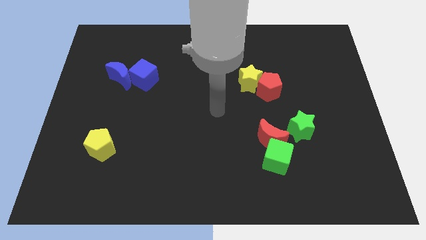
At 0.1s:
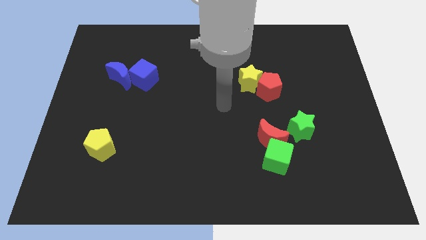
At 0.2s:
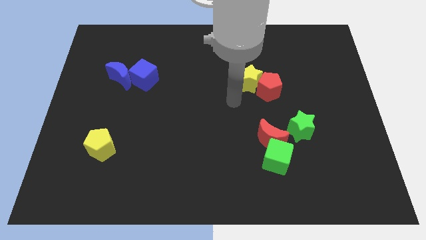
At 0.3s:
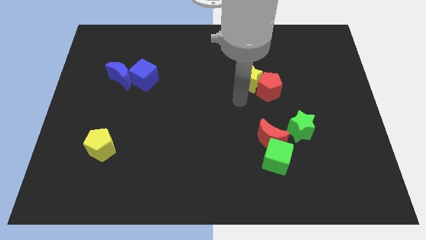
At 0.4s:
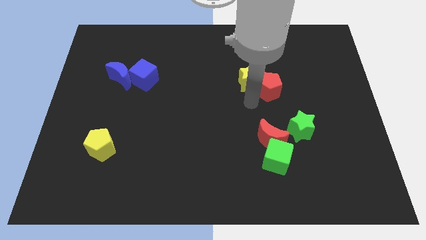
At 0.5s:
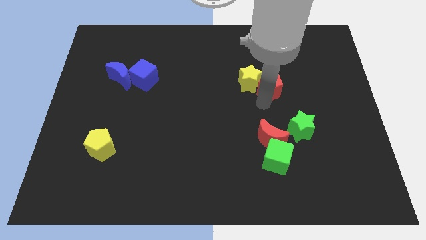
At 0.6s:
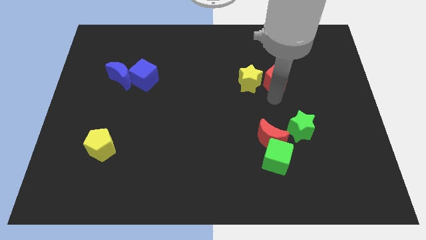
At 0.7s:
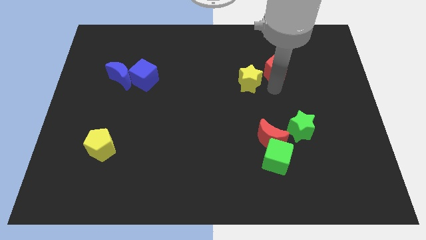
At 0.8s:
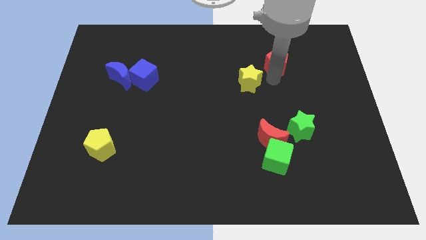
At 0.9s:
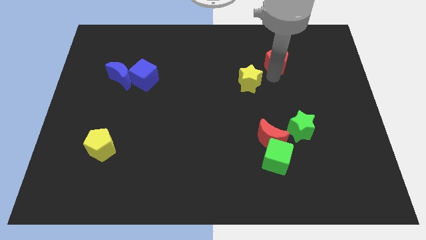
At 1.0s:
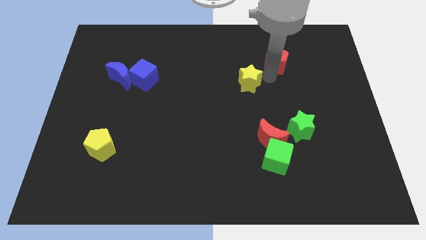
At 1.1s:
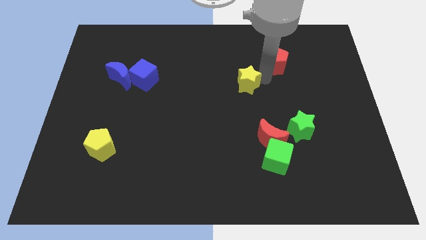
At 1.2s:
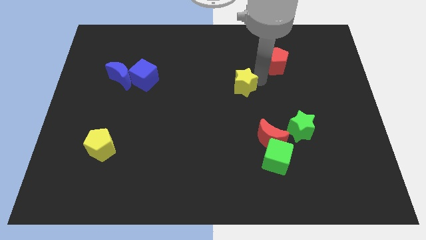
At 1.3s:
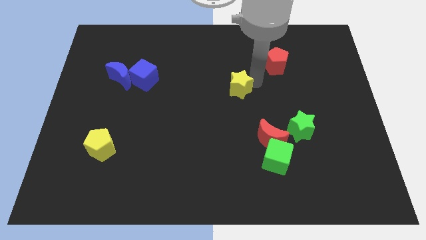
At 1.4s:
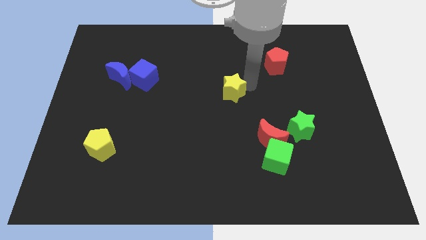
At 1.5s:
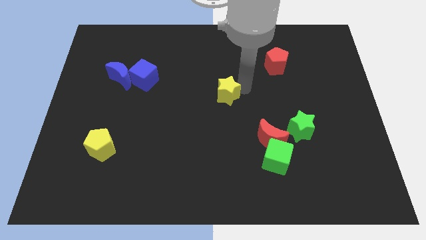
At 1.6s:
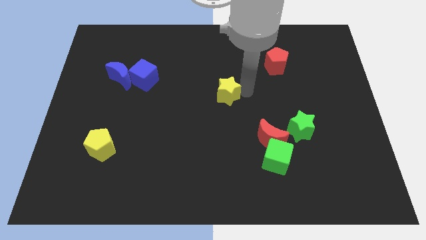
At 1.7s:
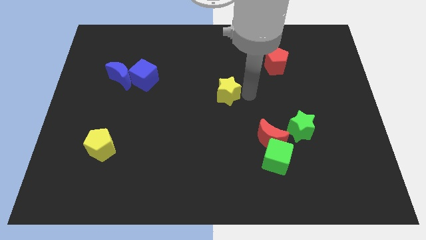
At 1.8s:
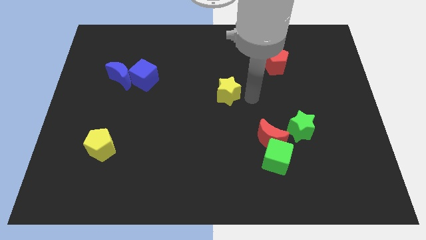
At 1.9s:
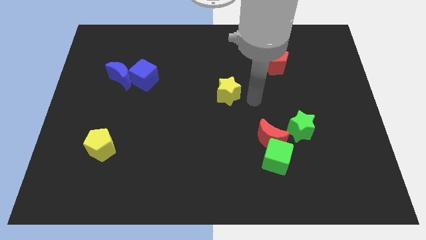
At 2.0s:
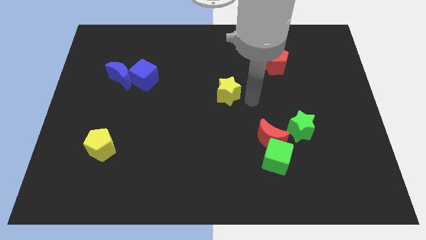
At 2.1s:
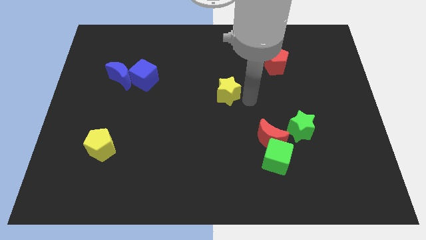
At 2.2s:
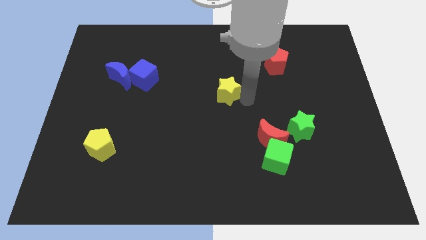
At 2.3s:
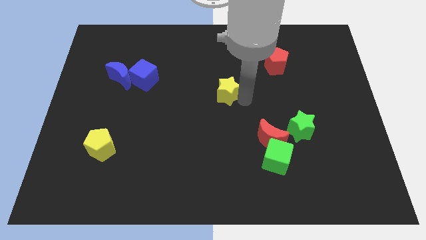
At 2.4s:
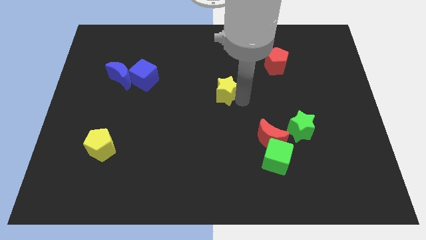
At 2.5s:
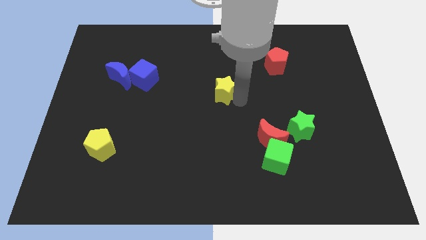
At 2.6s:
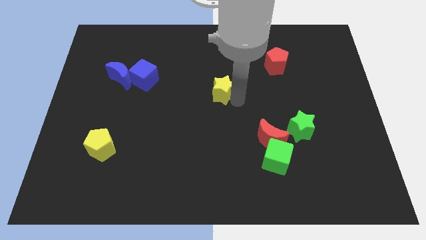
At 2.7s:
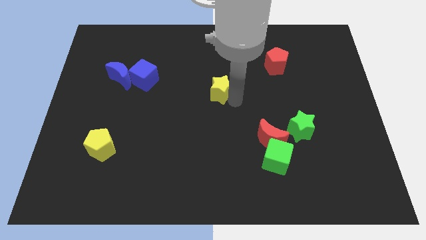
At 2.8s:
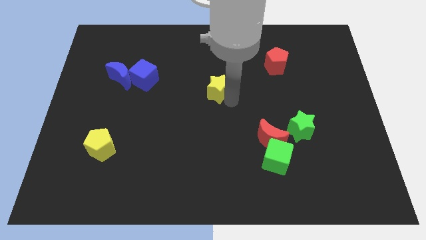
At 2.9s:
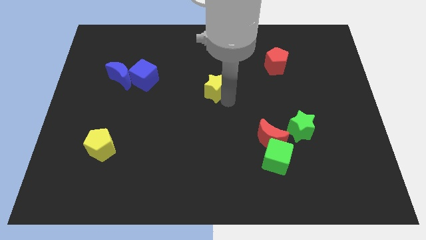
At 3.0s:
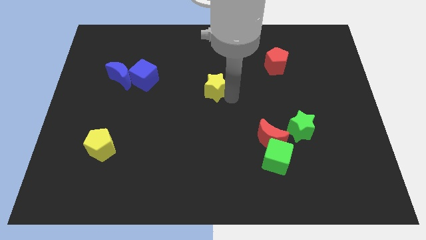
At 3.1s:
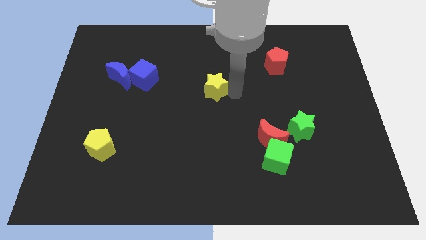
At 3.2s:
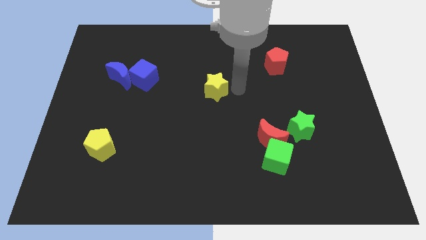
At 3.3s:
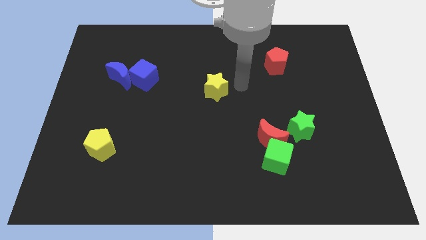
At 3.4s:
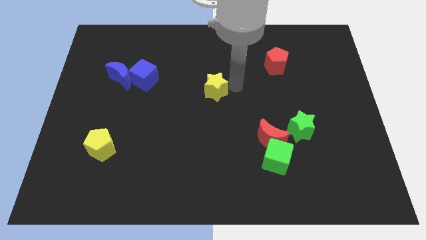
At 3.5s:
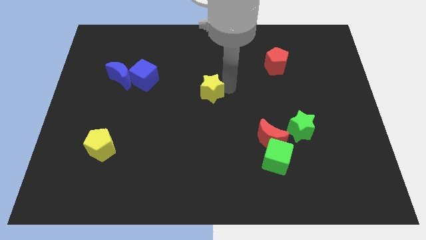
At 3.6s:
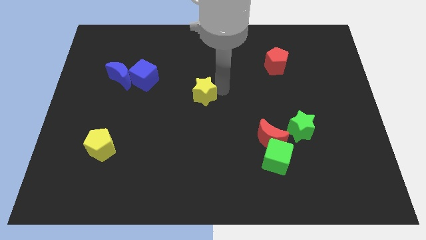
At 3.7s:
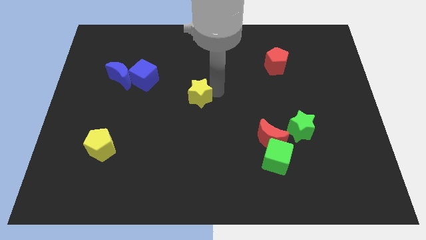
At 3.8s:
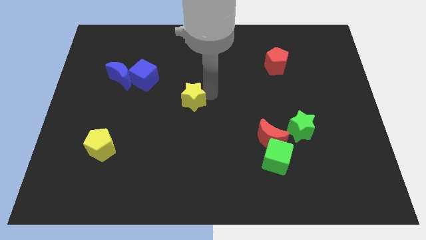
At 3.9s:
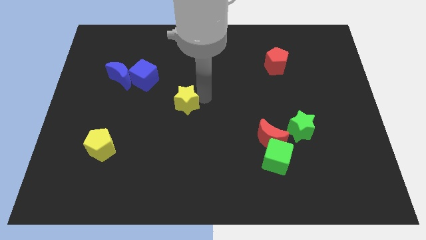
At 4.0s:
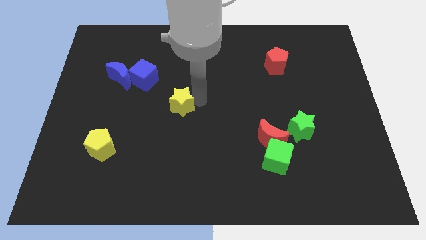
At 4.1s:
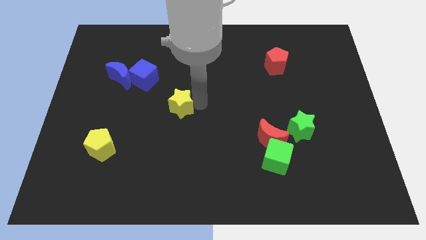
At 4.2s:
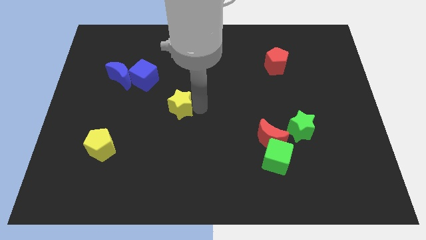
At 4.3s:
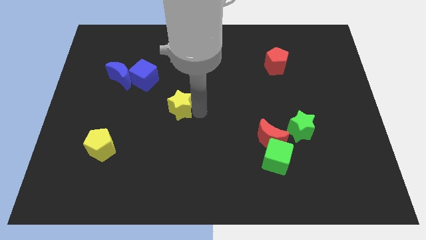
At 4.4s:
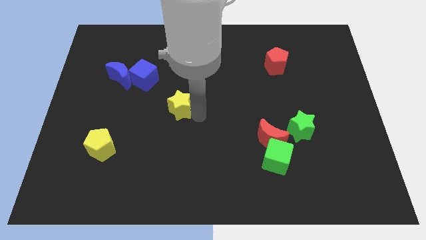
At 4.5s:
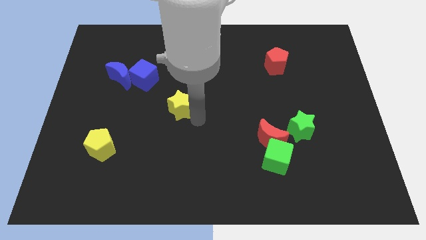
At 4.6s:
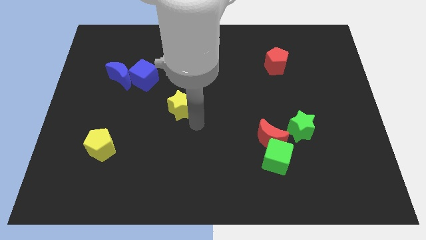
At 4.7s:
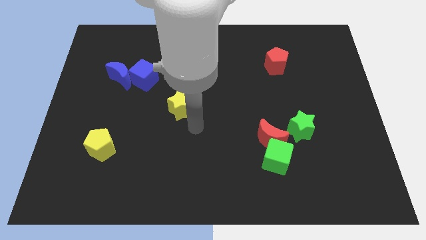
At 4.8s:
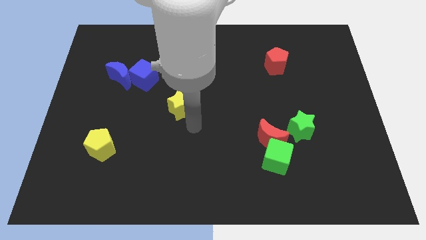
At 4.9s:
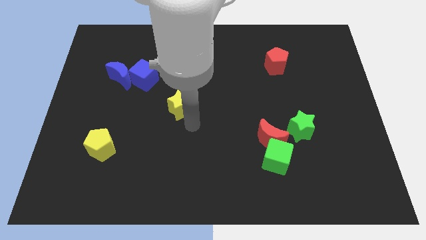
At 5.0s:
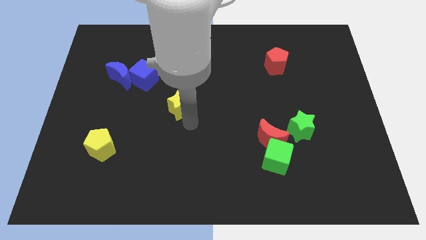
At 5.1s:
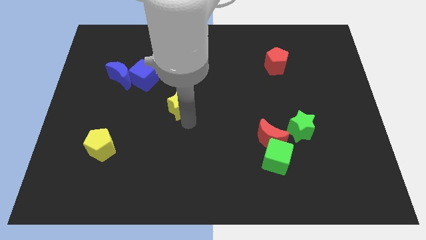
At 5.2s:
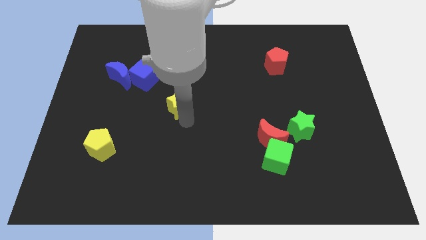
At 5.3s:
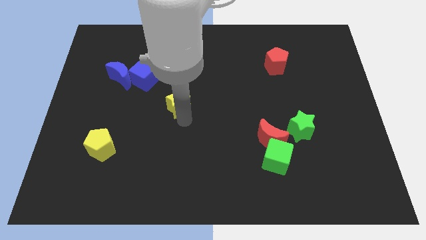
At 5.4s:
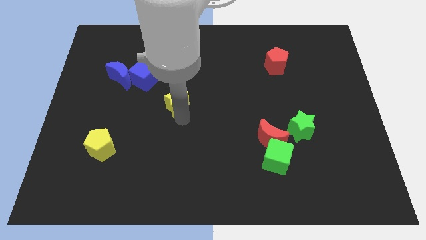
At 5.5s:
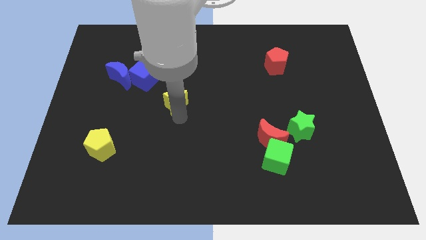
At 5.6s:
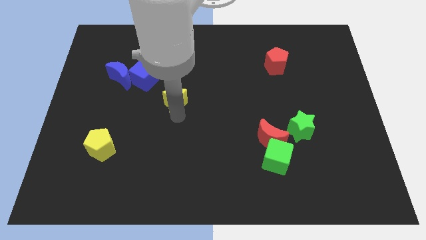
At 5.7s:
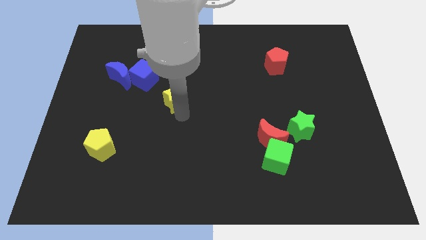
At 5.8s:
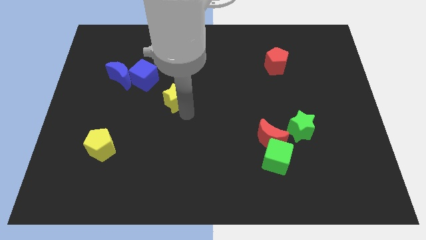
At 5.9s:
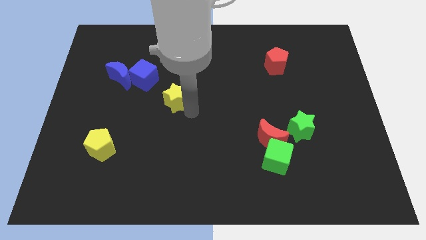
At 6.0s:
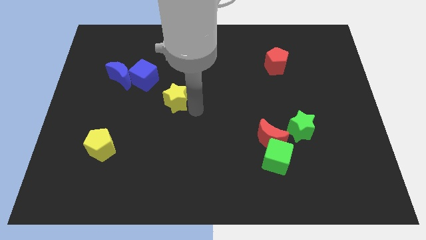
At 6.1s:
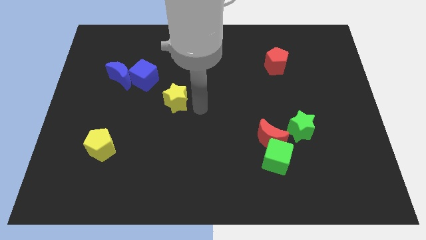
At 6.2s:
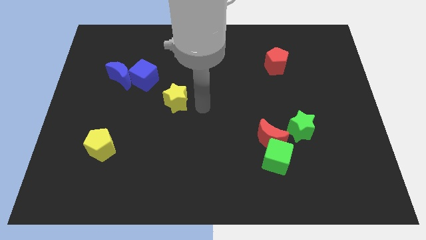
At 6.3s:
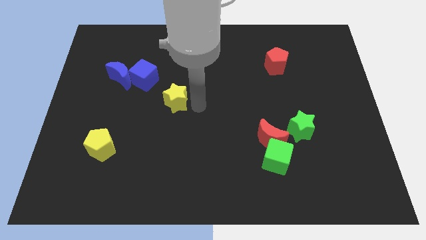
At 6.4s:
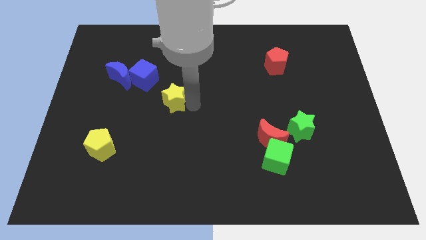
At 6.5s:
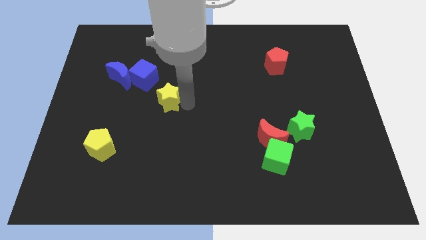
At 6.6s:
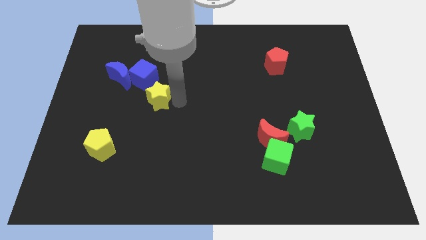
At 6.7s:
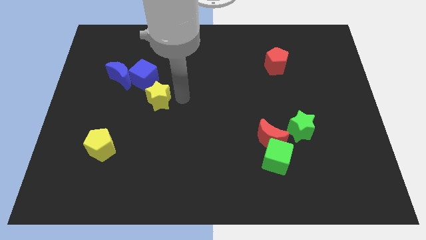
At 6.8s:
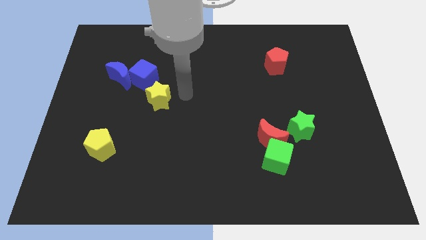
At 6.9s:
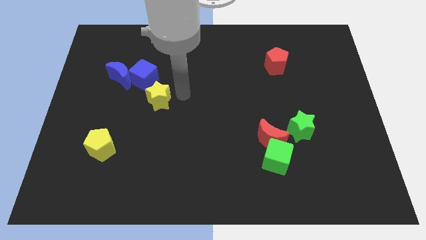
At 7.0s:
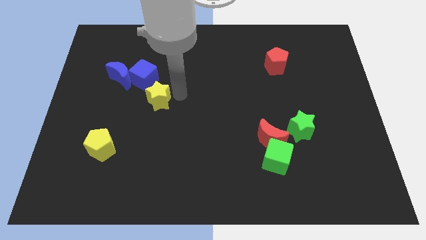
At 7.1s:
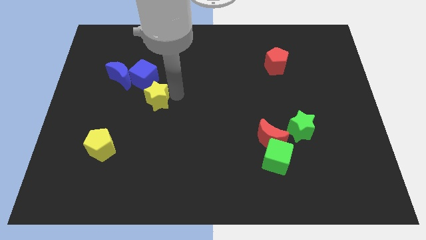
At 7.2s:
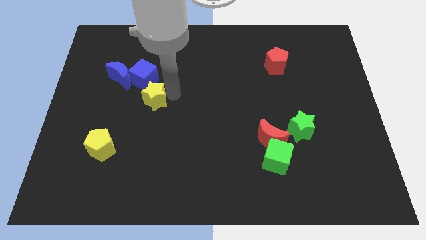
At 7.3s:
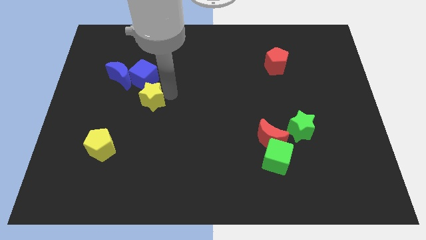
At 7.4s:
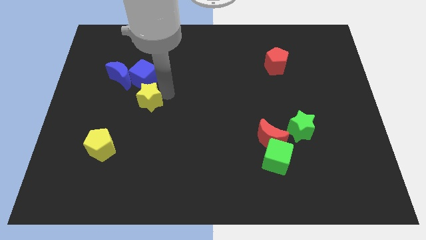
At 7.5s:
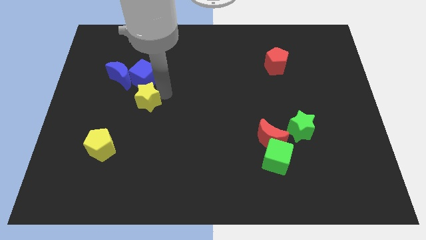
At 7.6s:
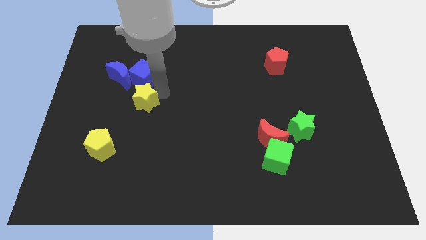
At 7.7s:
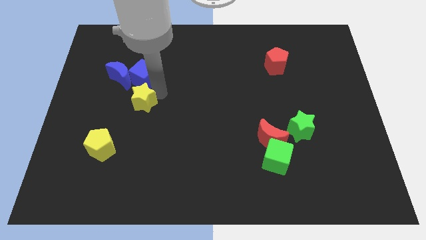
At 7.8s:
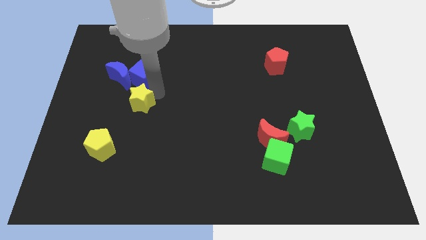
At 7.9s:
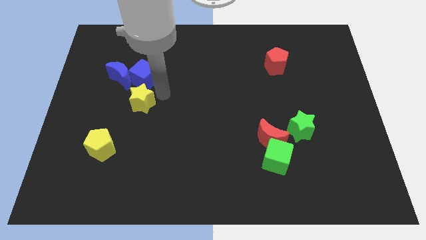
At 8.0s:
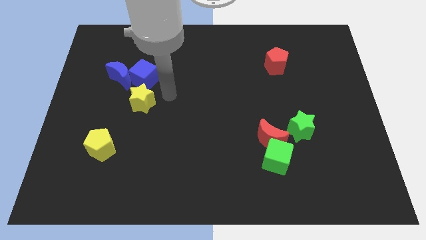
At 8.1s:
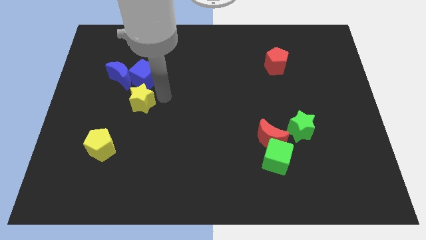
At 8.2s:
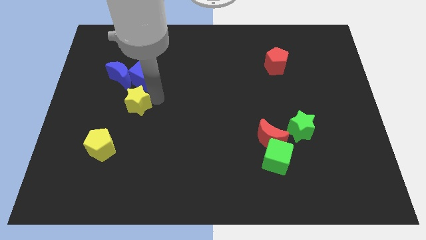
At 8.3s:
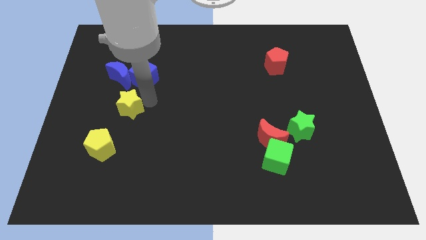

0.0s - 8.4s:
slide the yellow star to the bottom side of the blue moon
